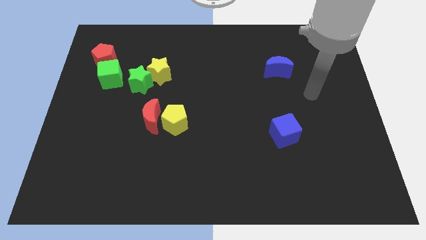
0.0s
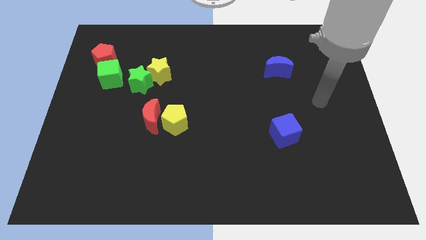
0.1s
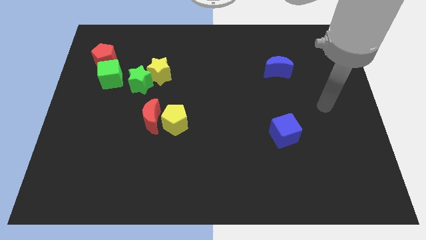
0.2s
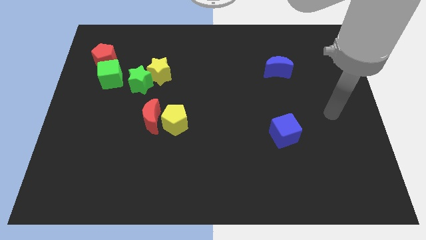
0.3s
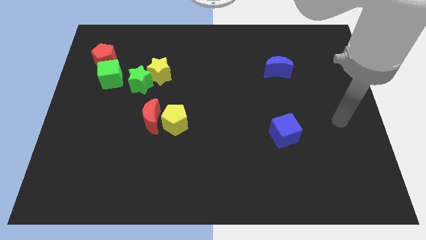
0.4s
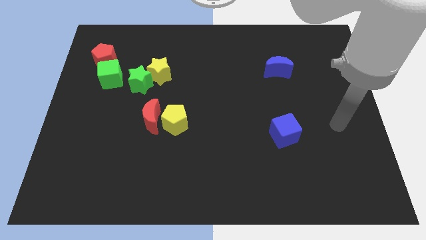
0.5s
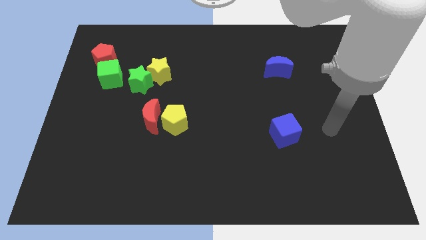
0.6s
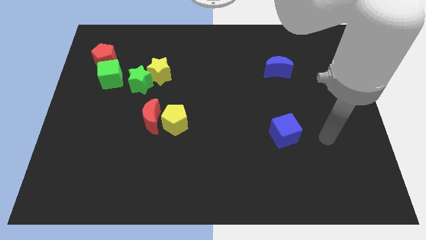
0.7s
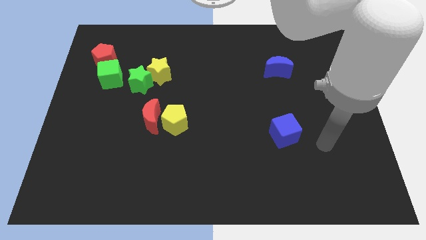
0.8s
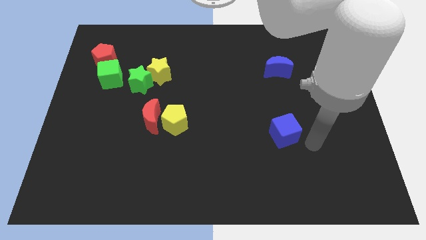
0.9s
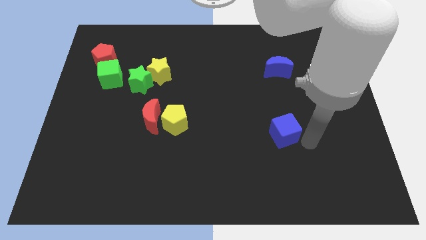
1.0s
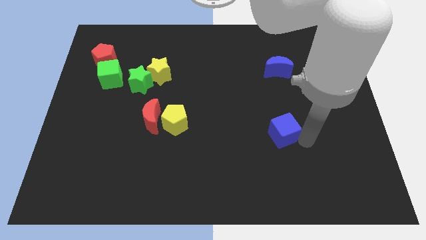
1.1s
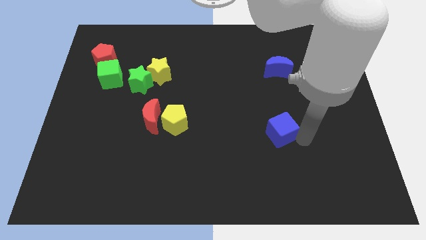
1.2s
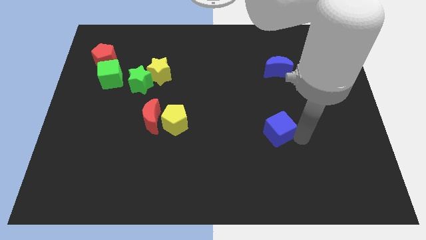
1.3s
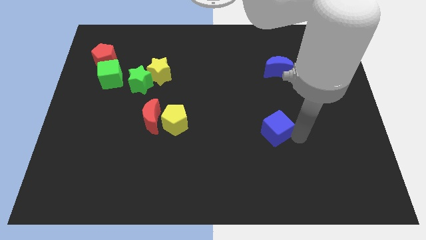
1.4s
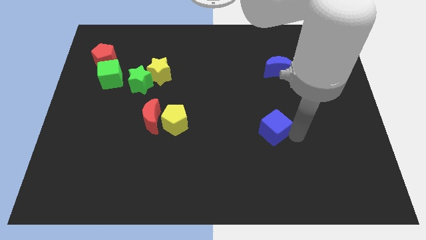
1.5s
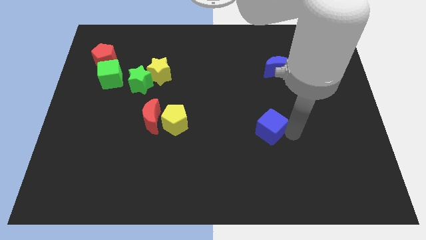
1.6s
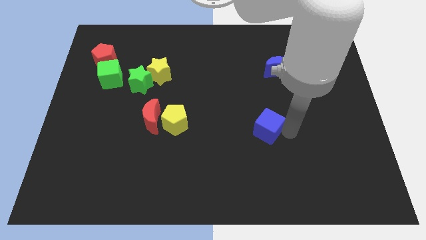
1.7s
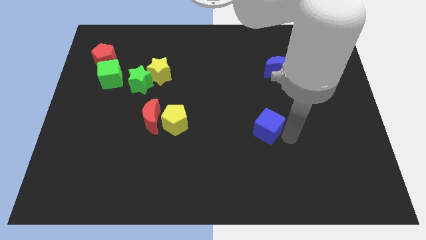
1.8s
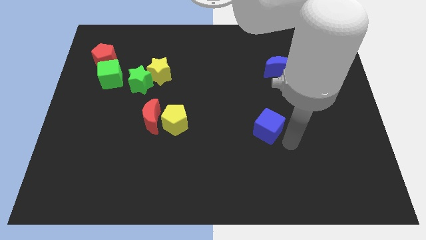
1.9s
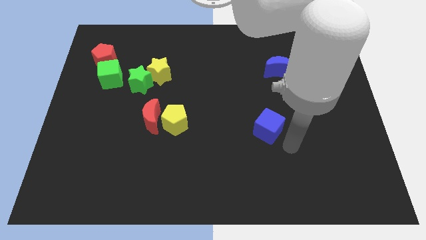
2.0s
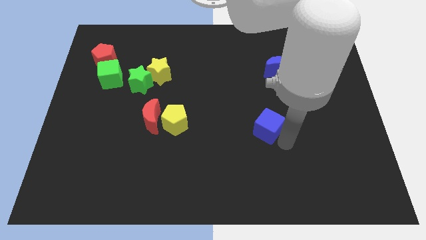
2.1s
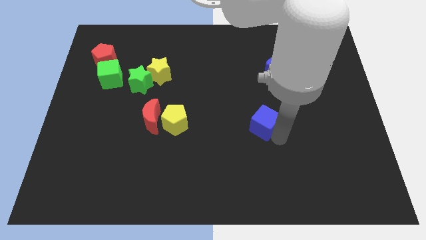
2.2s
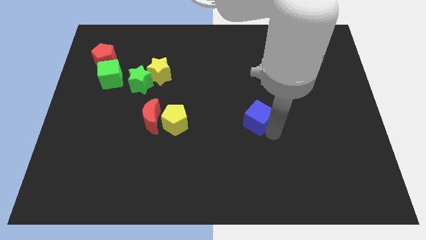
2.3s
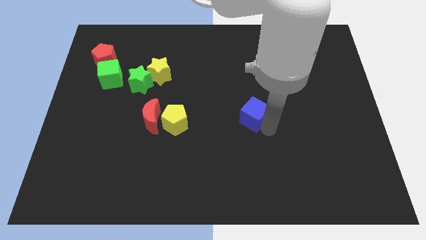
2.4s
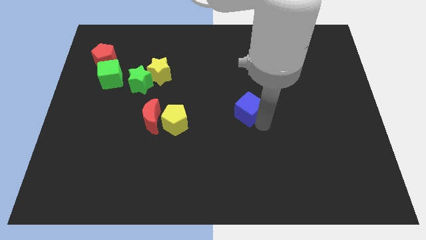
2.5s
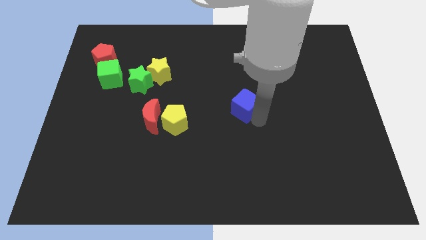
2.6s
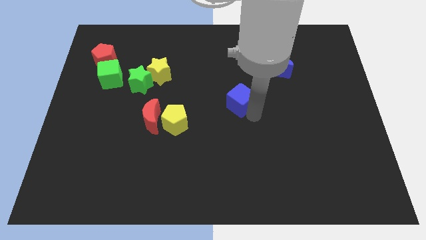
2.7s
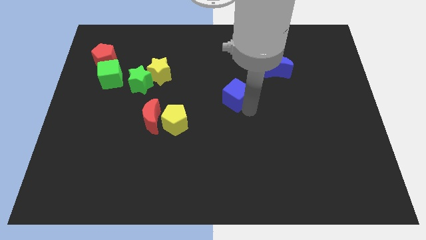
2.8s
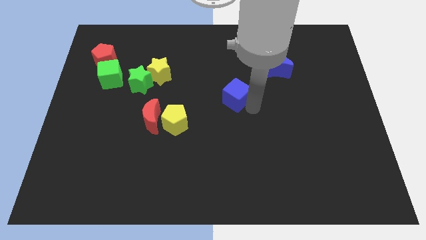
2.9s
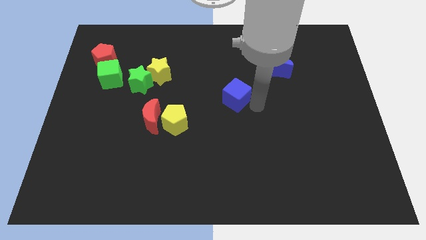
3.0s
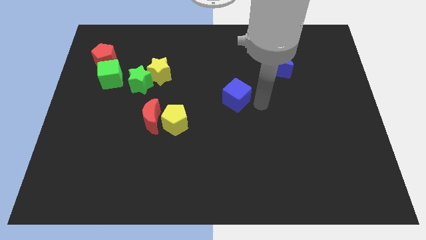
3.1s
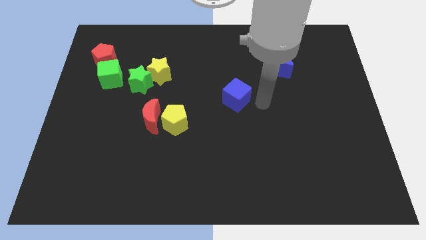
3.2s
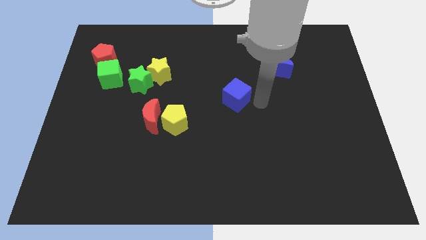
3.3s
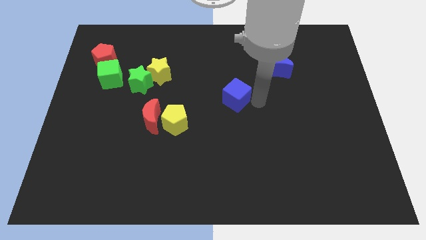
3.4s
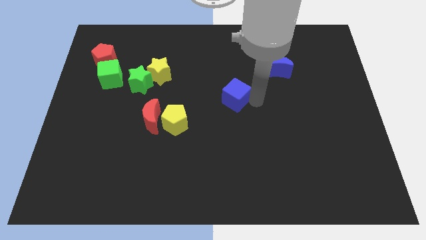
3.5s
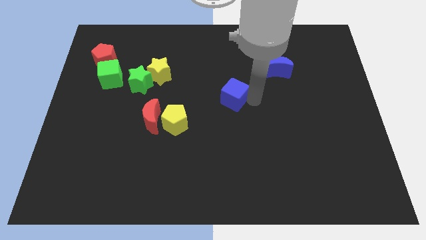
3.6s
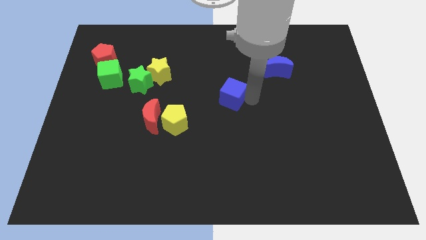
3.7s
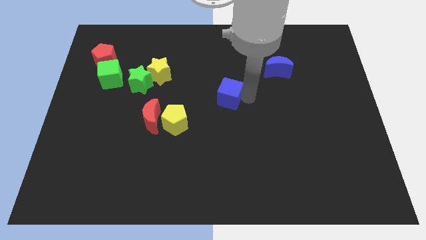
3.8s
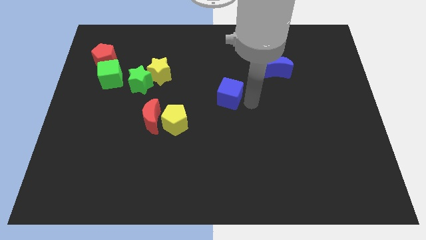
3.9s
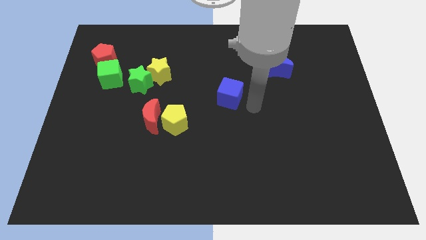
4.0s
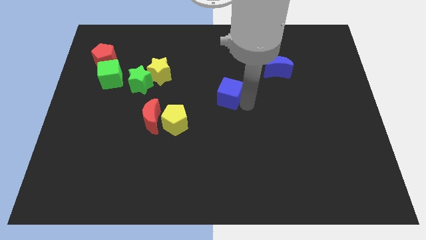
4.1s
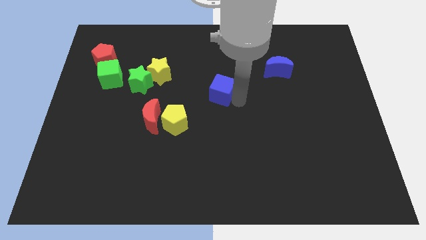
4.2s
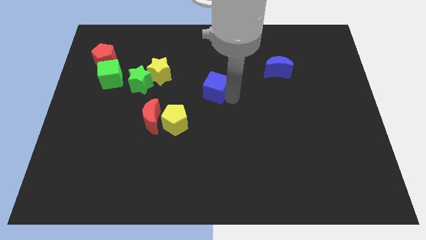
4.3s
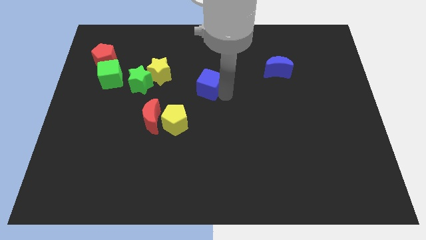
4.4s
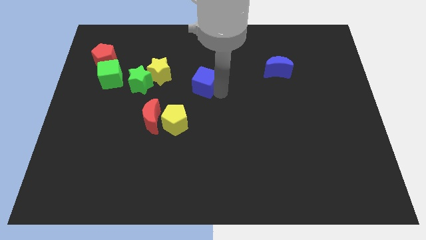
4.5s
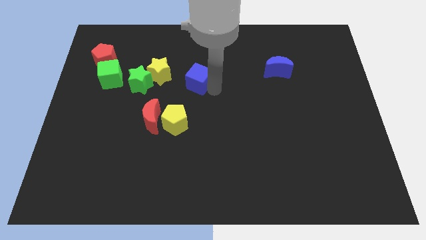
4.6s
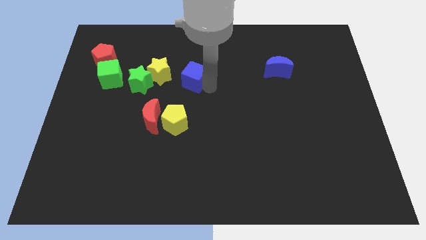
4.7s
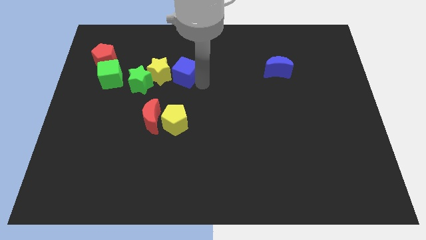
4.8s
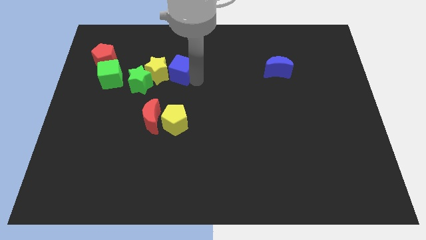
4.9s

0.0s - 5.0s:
push the blue cube to the top right of the green star

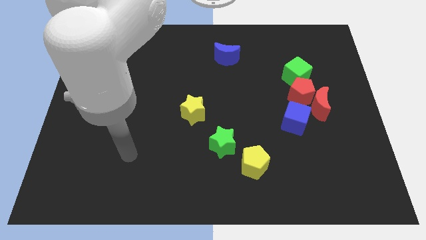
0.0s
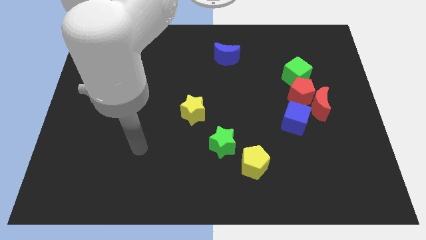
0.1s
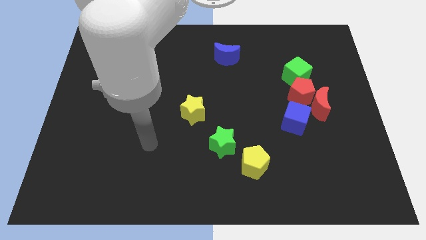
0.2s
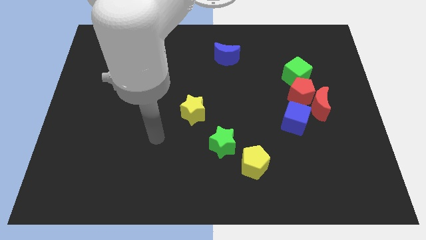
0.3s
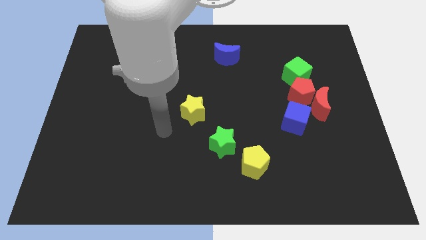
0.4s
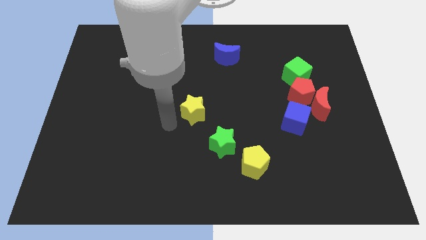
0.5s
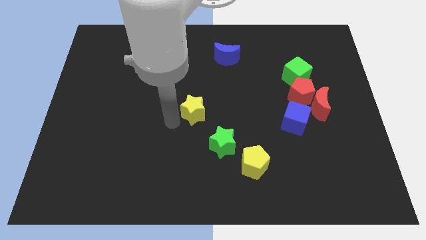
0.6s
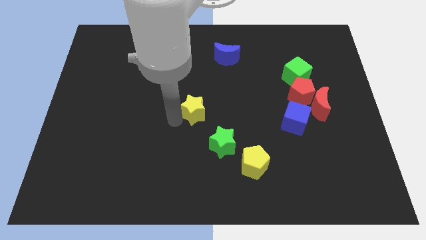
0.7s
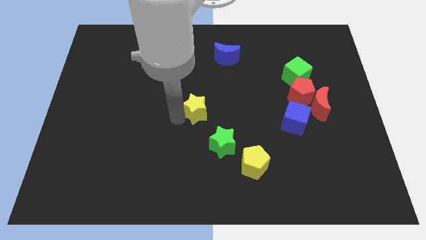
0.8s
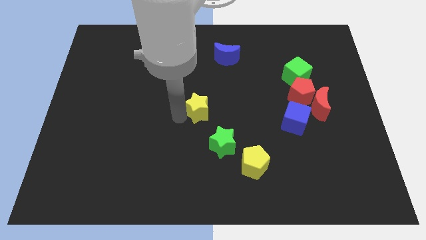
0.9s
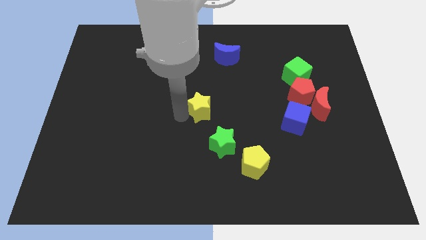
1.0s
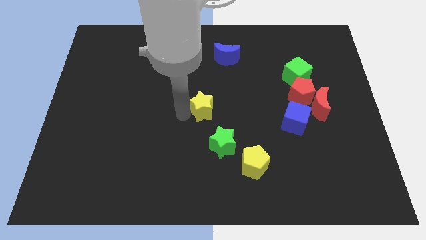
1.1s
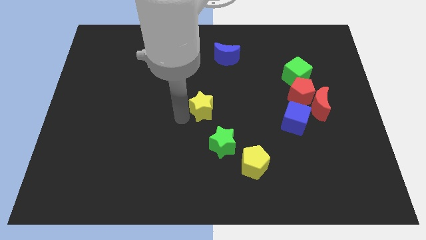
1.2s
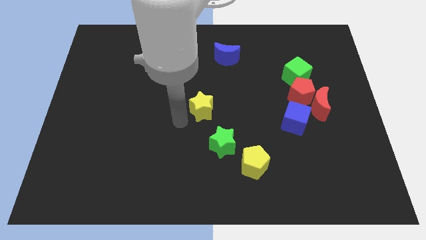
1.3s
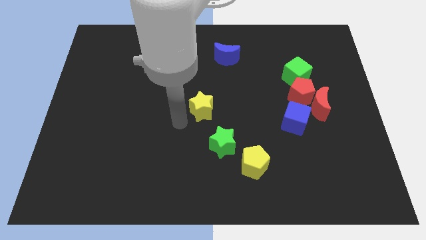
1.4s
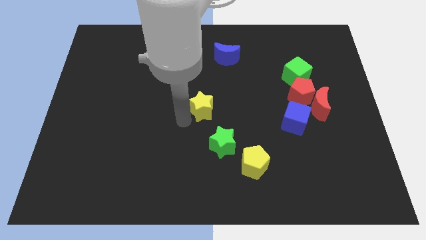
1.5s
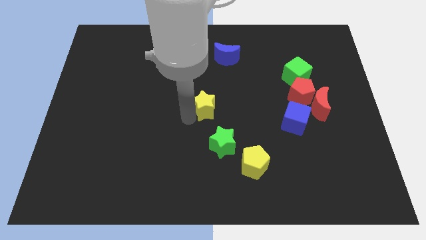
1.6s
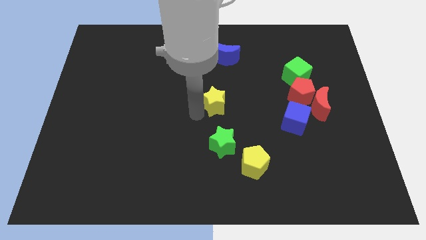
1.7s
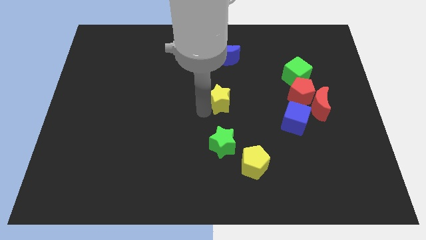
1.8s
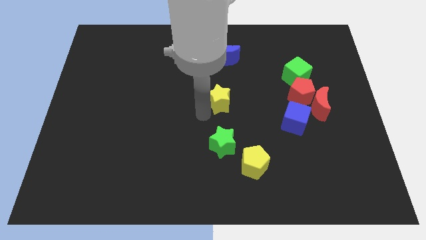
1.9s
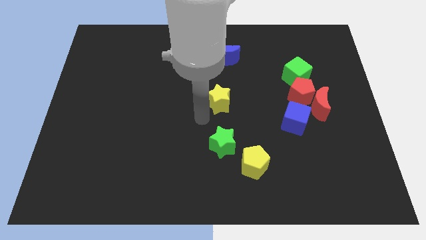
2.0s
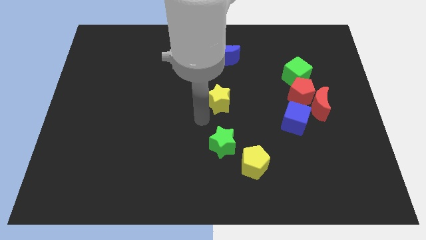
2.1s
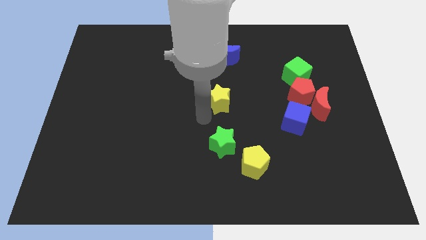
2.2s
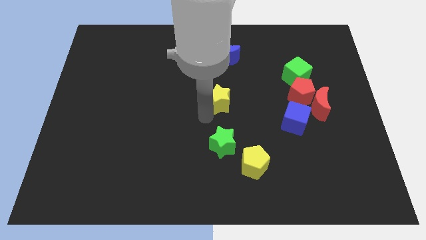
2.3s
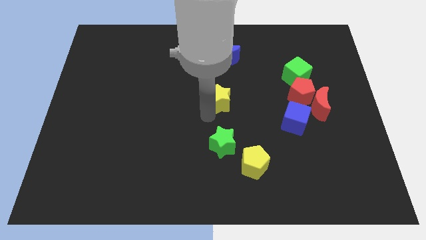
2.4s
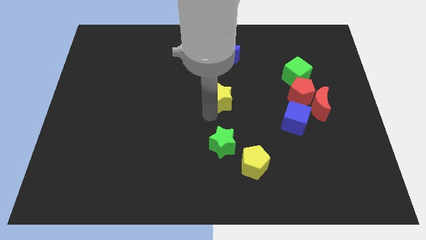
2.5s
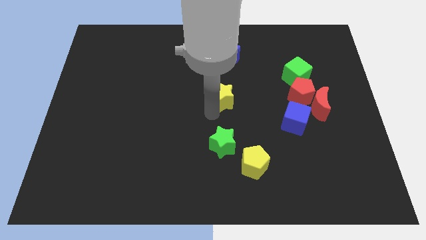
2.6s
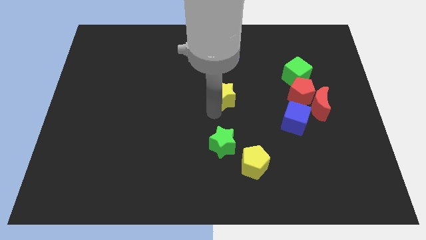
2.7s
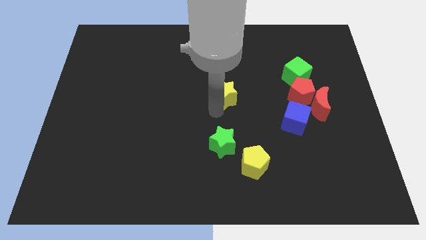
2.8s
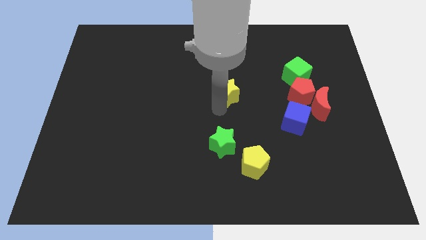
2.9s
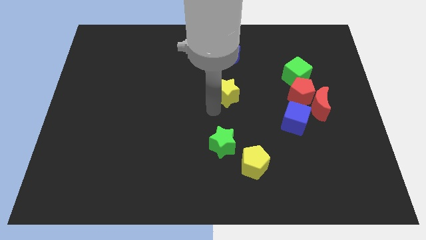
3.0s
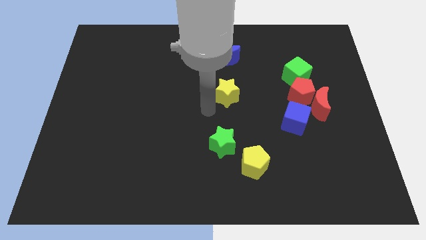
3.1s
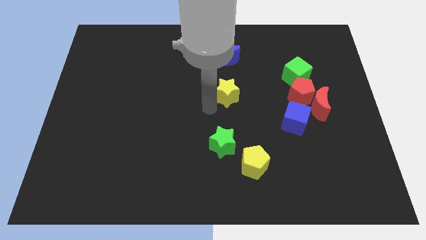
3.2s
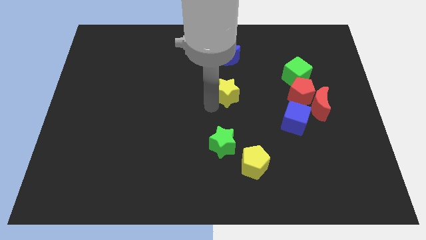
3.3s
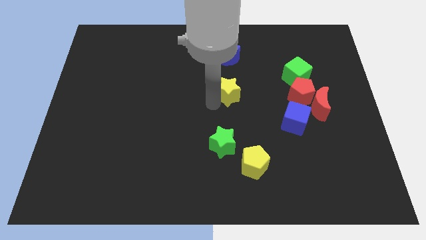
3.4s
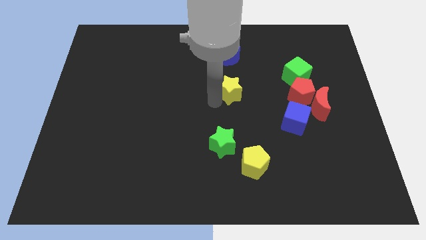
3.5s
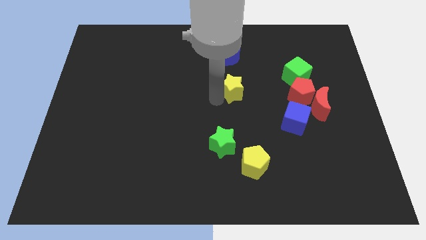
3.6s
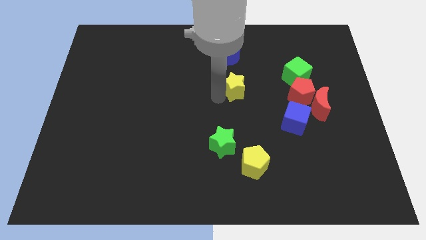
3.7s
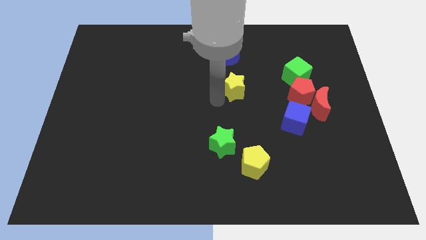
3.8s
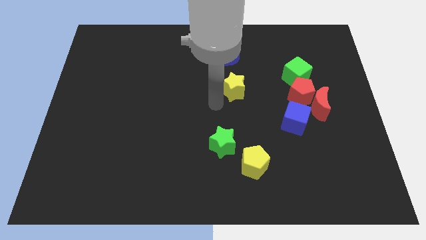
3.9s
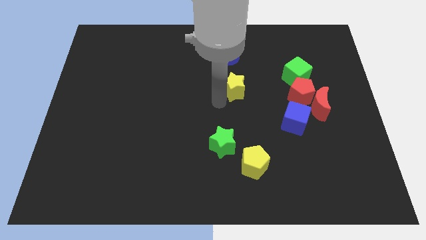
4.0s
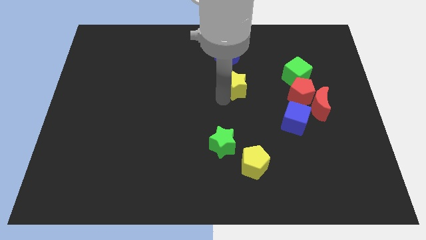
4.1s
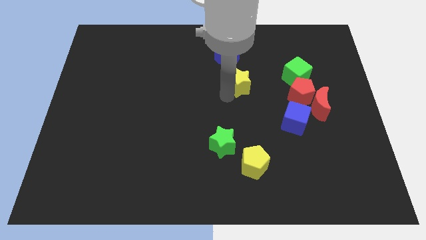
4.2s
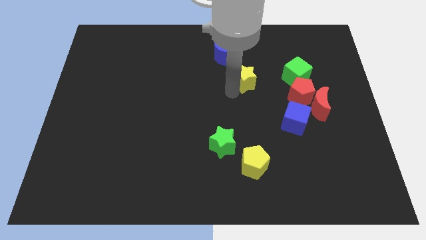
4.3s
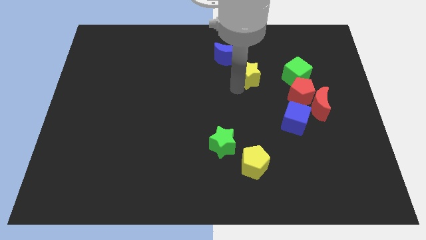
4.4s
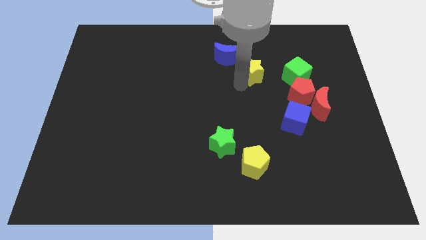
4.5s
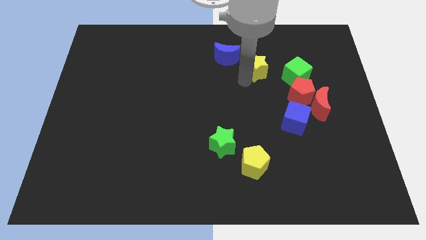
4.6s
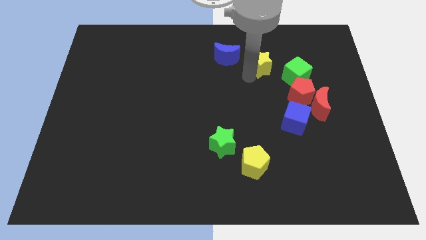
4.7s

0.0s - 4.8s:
put the yellow star to the top left side of the green cube
